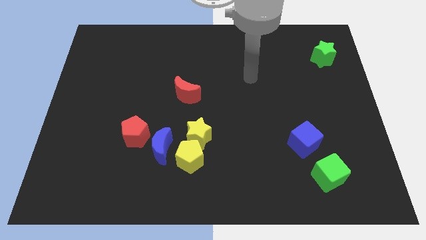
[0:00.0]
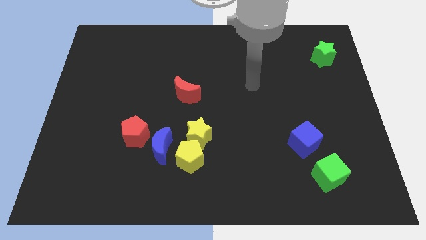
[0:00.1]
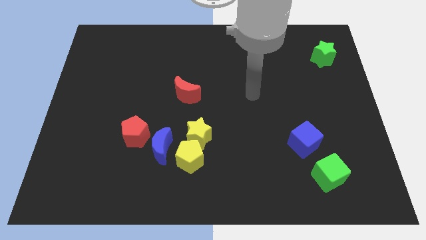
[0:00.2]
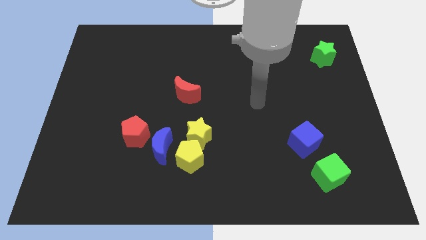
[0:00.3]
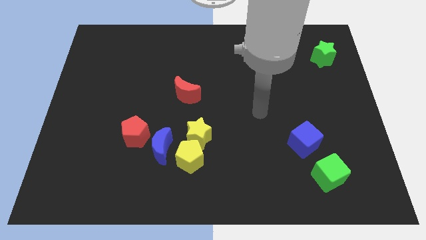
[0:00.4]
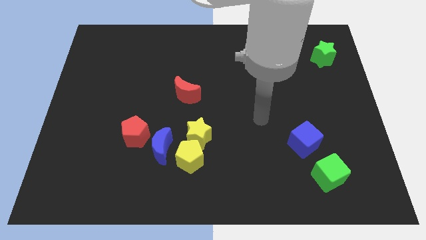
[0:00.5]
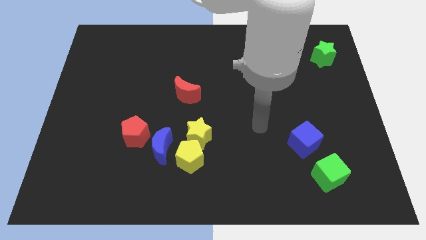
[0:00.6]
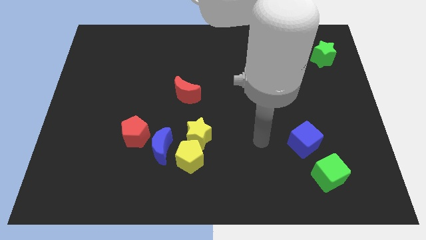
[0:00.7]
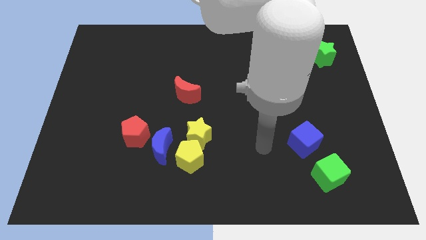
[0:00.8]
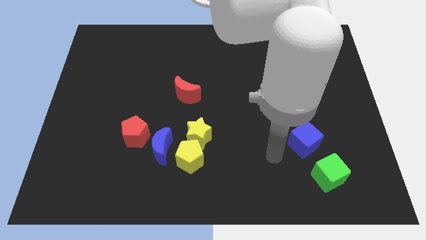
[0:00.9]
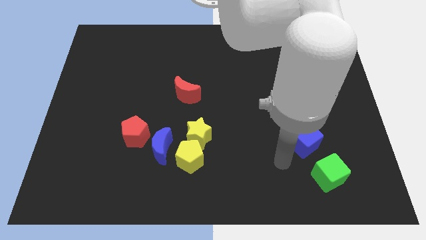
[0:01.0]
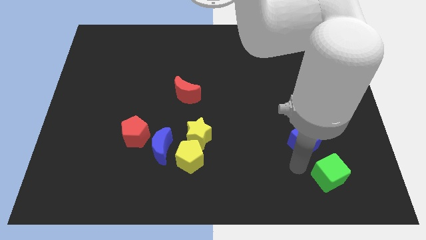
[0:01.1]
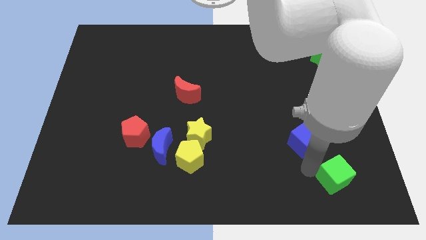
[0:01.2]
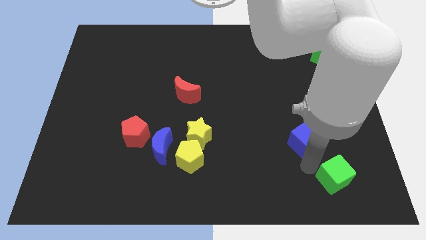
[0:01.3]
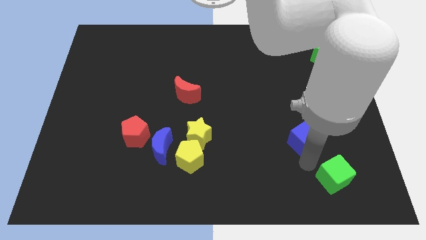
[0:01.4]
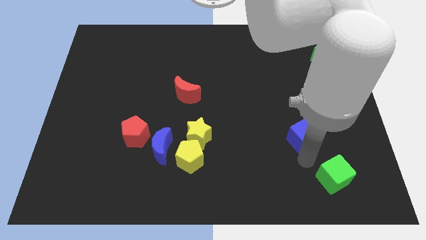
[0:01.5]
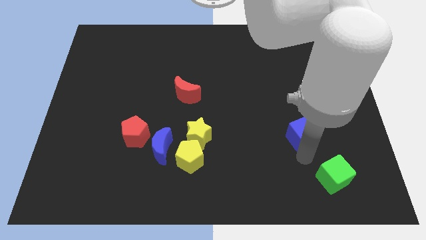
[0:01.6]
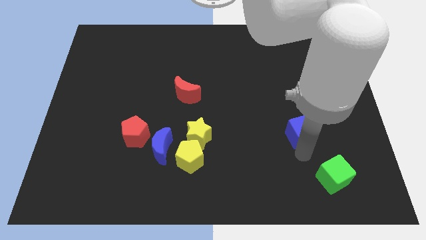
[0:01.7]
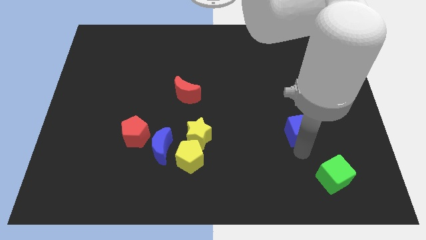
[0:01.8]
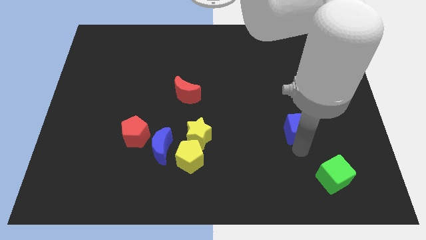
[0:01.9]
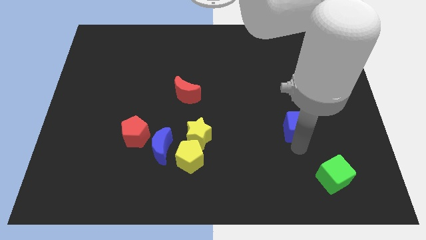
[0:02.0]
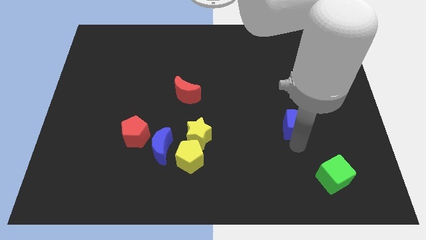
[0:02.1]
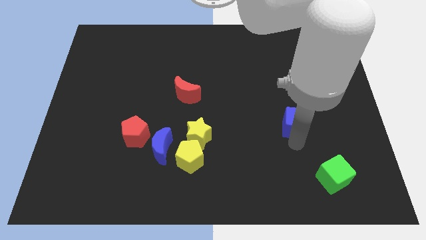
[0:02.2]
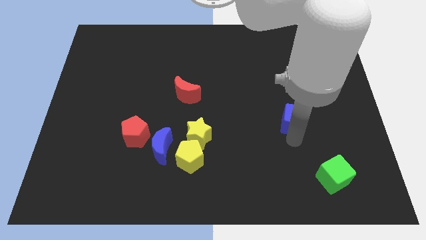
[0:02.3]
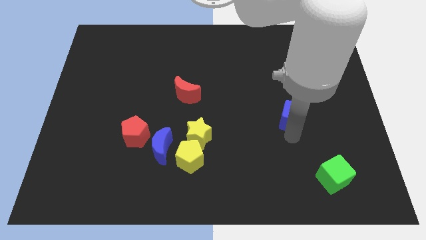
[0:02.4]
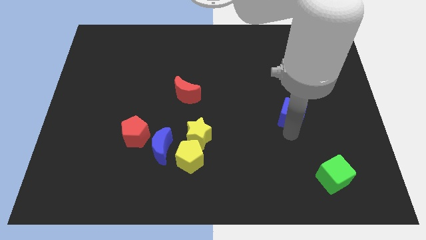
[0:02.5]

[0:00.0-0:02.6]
push the blue cube upwards slightly

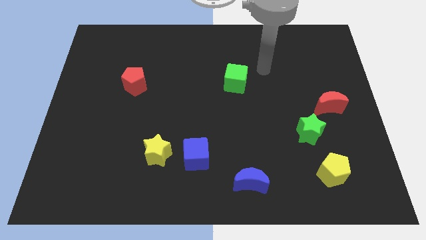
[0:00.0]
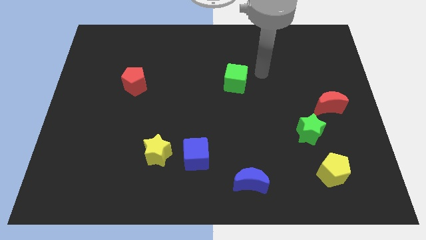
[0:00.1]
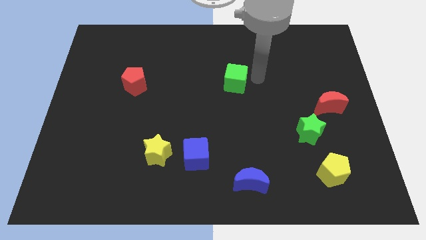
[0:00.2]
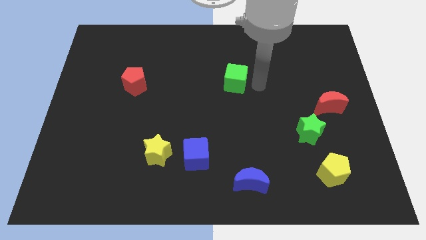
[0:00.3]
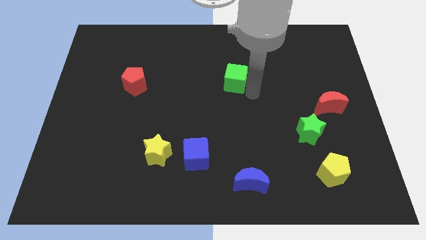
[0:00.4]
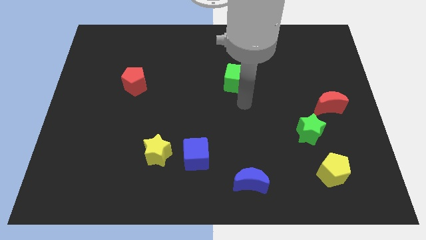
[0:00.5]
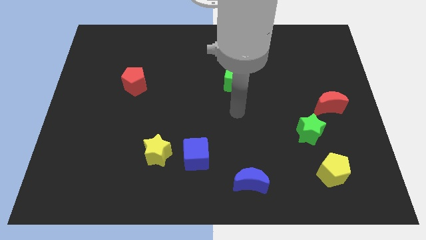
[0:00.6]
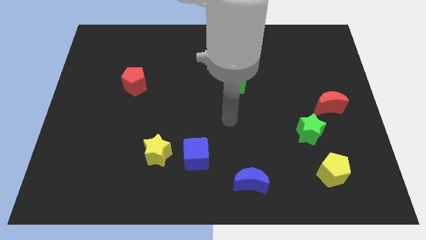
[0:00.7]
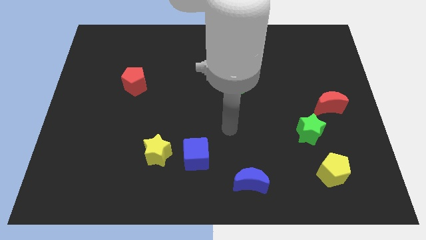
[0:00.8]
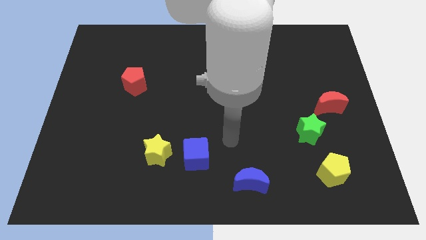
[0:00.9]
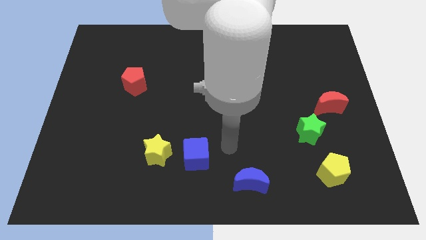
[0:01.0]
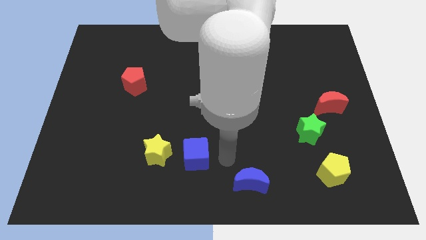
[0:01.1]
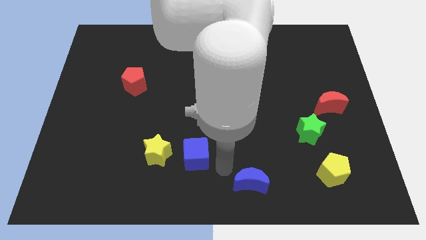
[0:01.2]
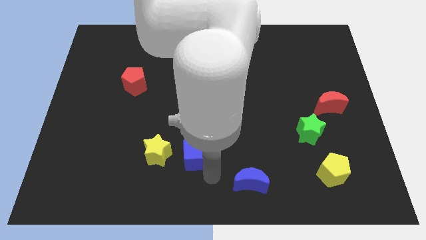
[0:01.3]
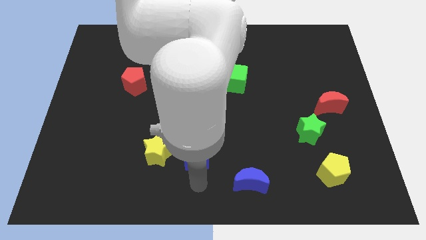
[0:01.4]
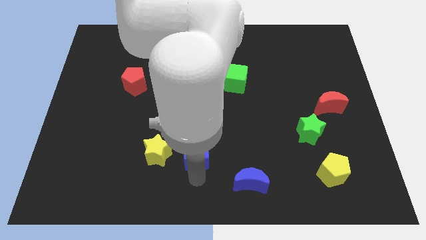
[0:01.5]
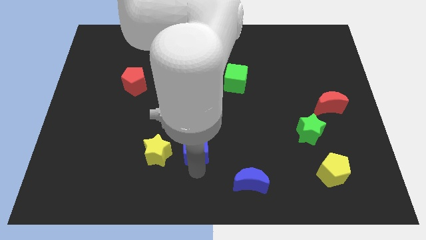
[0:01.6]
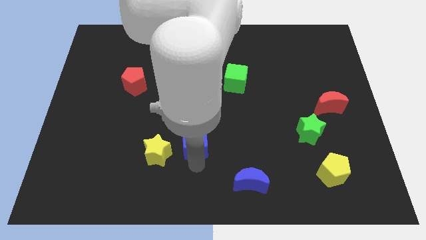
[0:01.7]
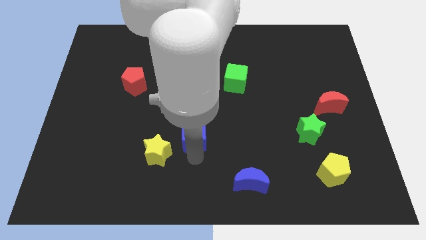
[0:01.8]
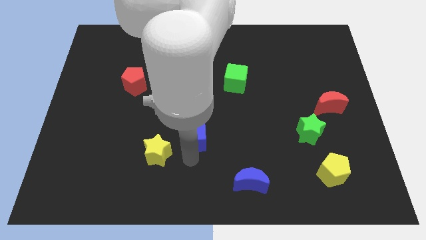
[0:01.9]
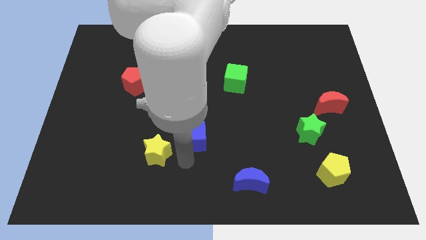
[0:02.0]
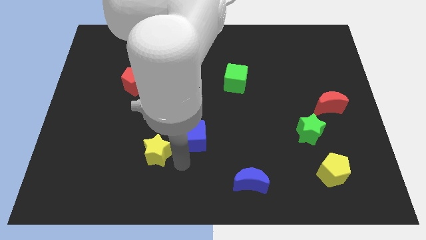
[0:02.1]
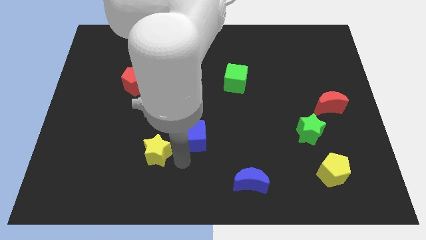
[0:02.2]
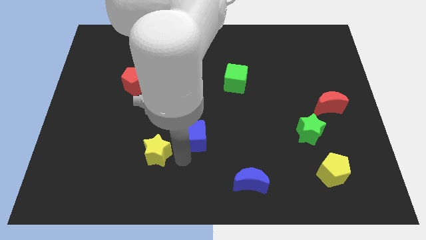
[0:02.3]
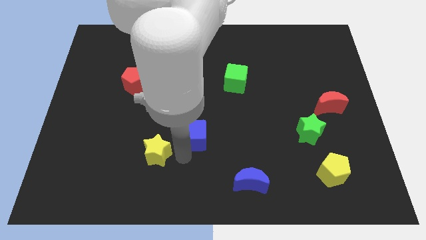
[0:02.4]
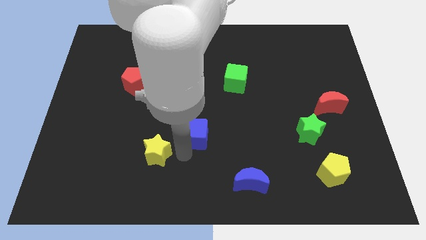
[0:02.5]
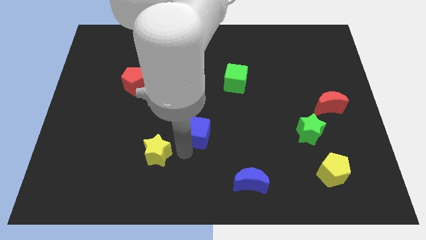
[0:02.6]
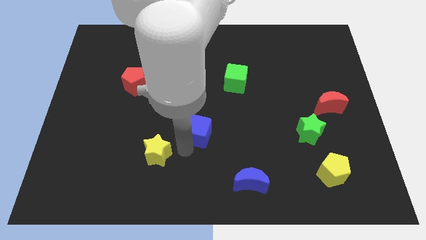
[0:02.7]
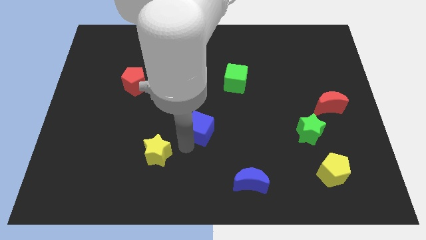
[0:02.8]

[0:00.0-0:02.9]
slightly slide the blue cube upwards

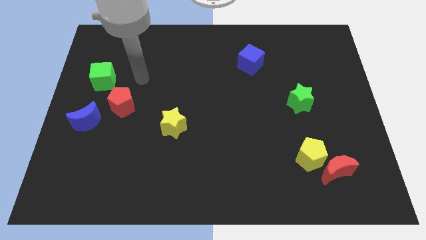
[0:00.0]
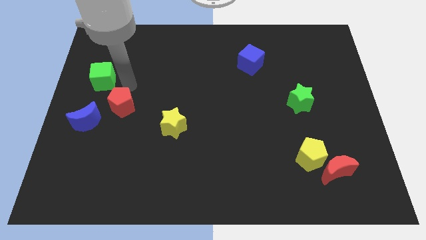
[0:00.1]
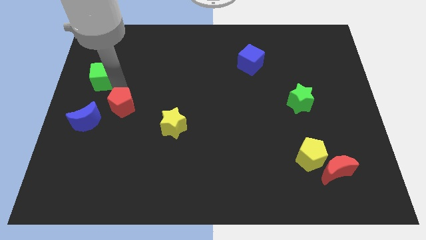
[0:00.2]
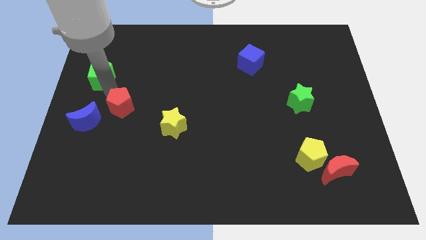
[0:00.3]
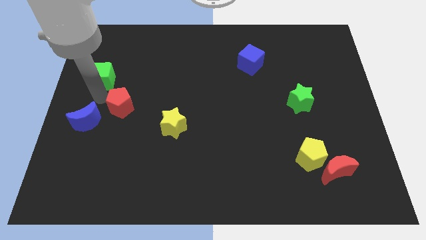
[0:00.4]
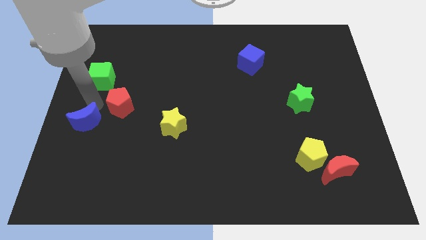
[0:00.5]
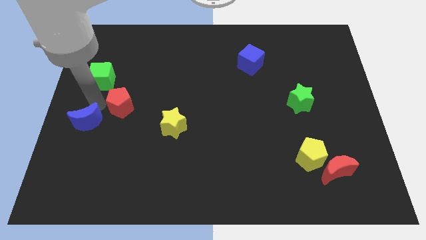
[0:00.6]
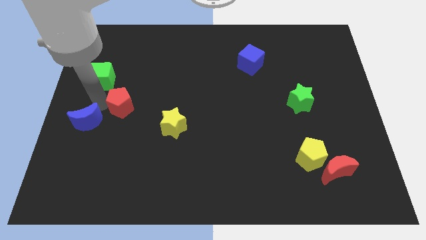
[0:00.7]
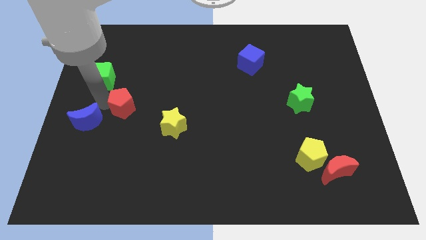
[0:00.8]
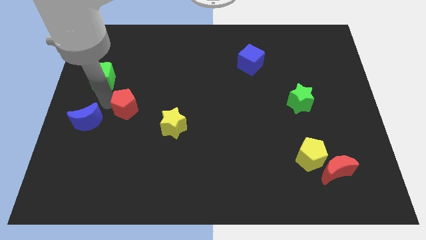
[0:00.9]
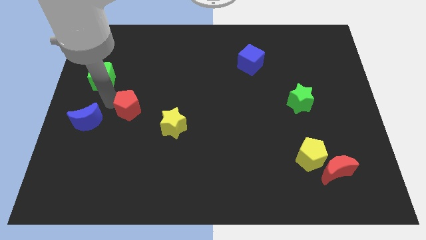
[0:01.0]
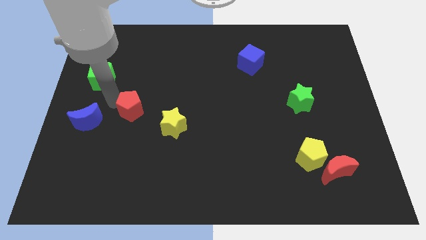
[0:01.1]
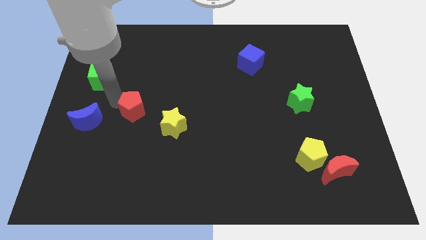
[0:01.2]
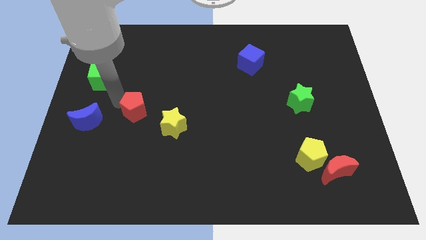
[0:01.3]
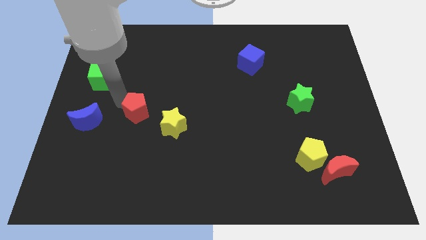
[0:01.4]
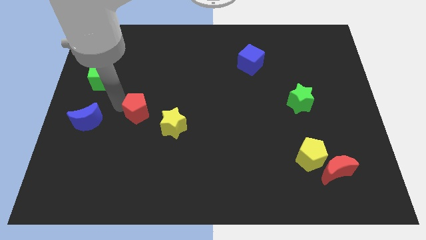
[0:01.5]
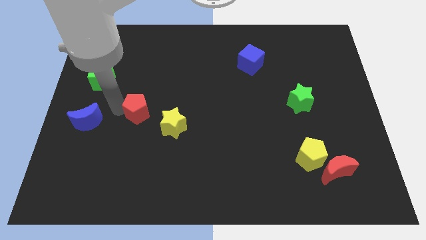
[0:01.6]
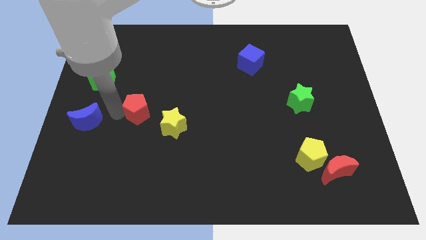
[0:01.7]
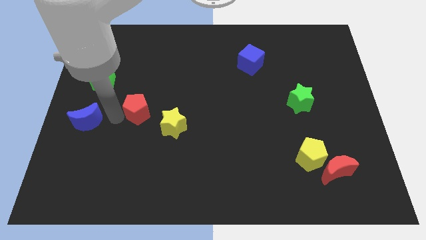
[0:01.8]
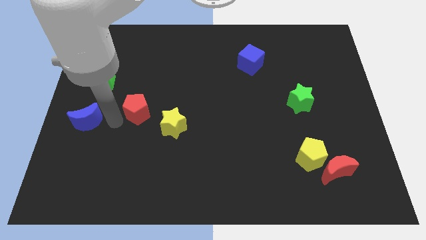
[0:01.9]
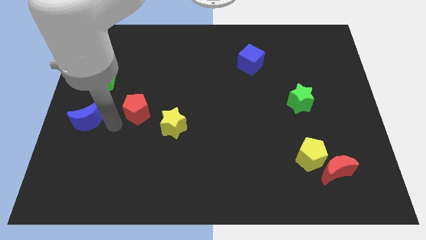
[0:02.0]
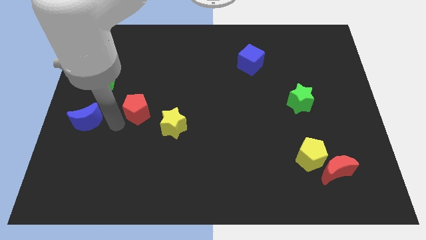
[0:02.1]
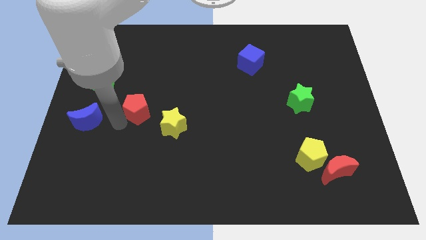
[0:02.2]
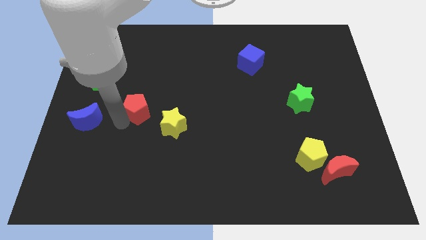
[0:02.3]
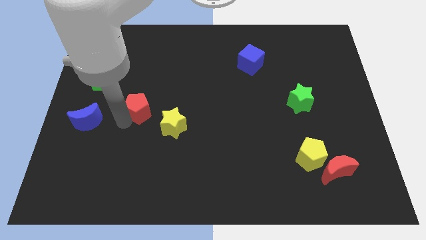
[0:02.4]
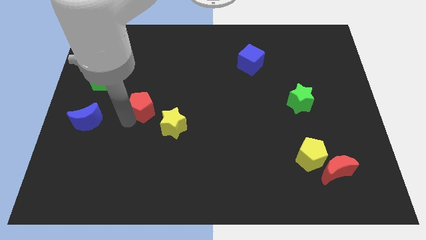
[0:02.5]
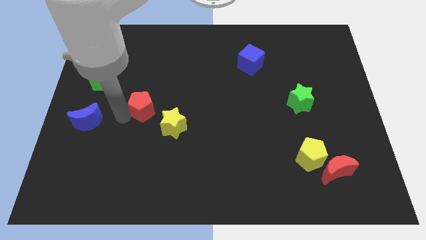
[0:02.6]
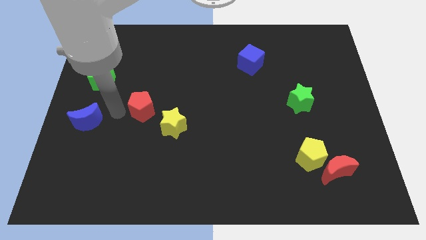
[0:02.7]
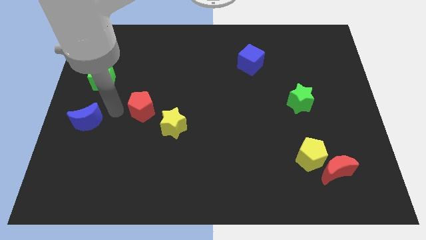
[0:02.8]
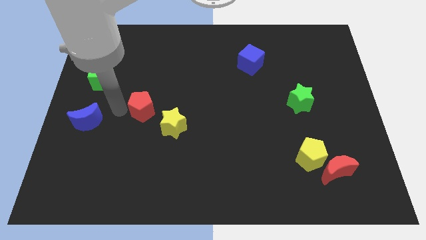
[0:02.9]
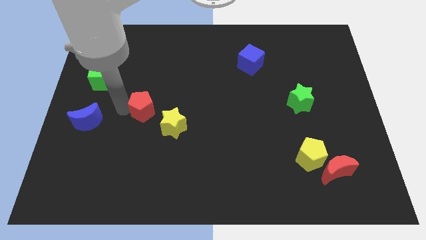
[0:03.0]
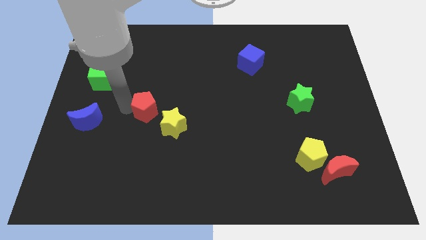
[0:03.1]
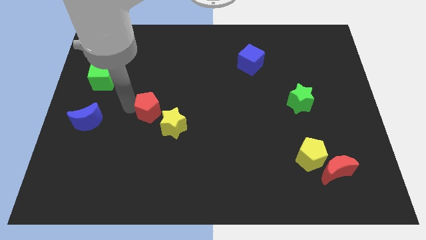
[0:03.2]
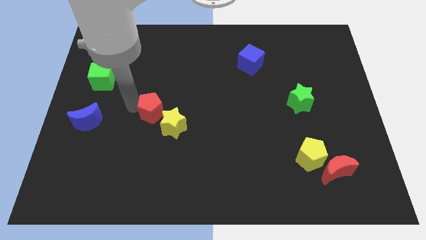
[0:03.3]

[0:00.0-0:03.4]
push the red pentagon to the right a little bit
